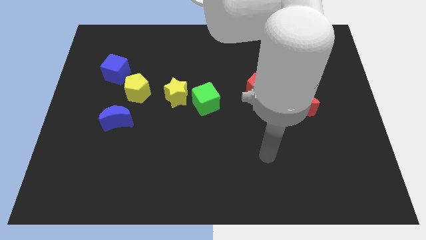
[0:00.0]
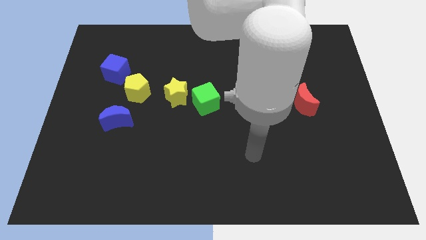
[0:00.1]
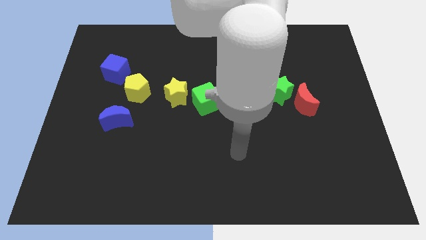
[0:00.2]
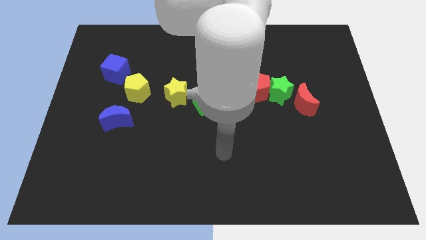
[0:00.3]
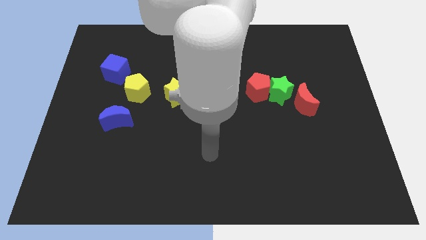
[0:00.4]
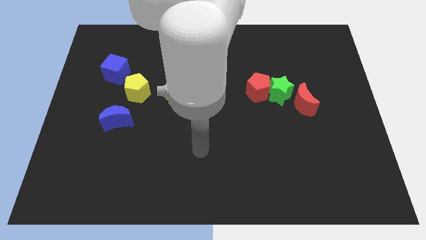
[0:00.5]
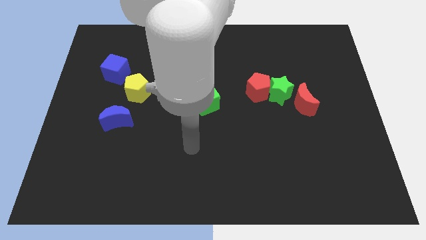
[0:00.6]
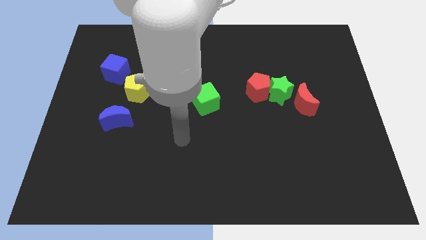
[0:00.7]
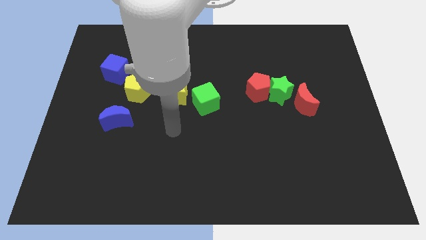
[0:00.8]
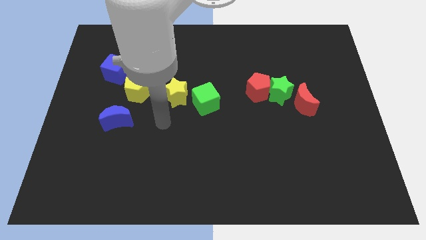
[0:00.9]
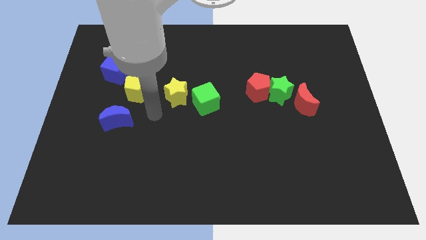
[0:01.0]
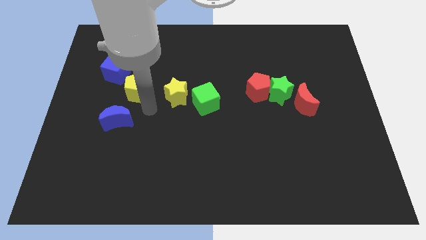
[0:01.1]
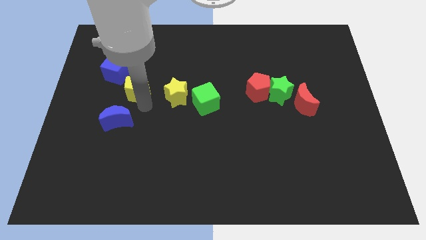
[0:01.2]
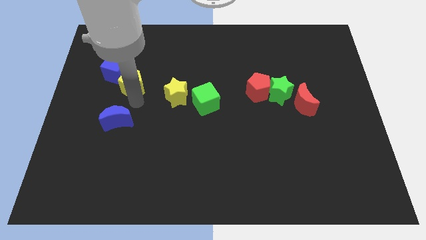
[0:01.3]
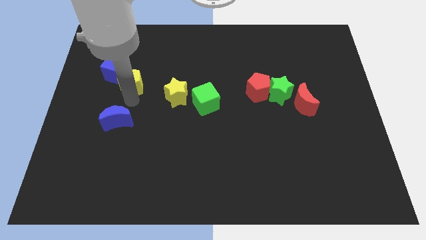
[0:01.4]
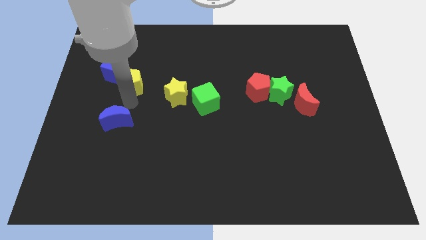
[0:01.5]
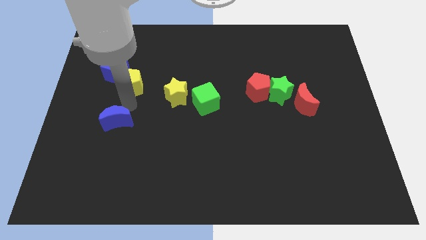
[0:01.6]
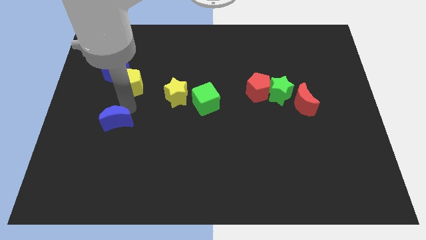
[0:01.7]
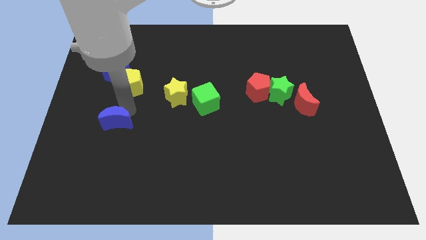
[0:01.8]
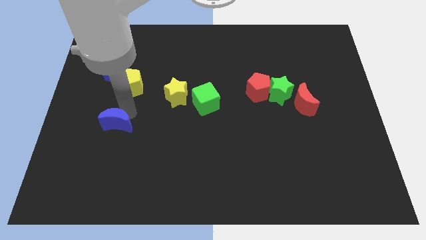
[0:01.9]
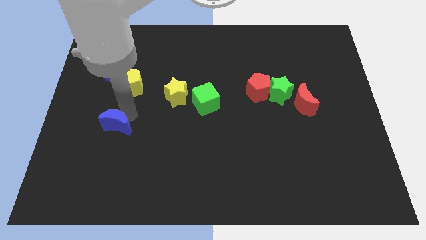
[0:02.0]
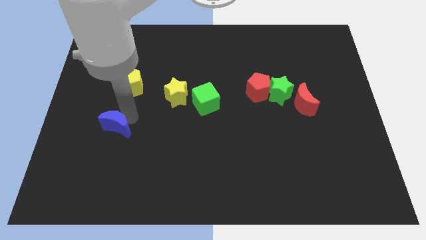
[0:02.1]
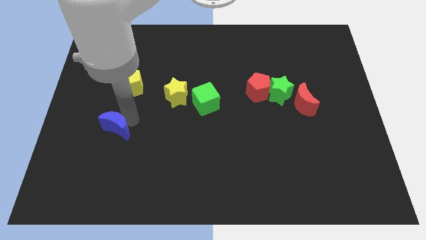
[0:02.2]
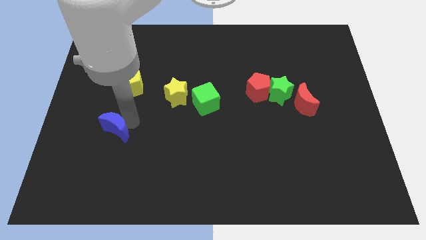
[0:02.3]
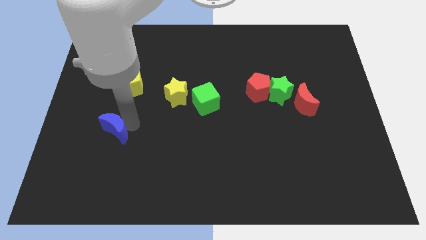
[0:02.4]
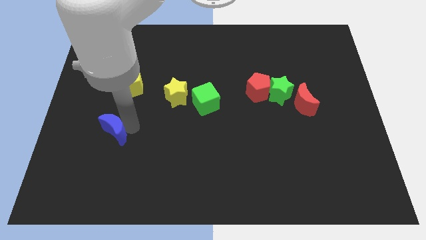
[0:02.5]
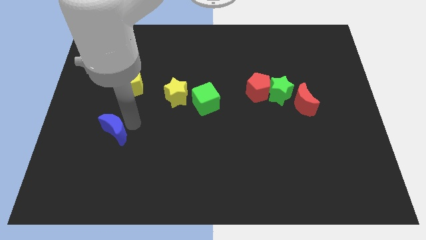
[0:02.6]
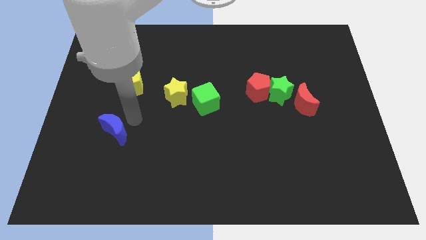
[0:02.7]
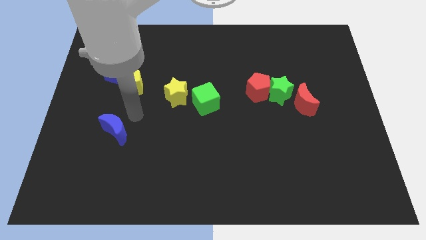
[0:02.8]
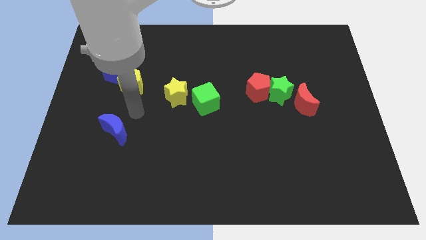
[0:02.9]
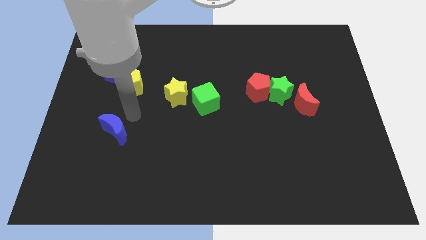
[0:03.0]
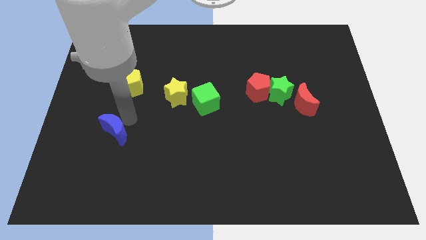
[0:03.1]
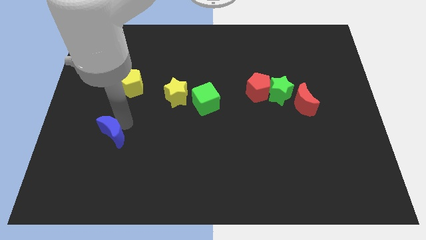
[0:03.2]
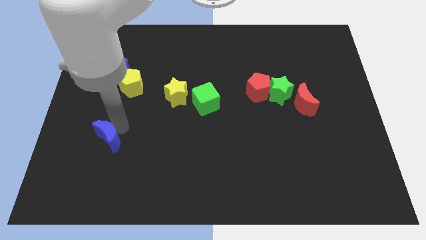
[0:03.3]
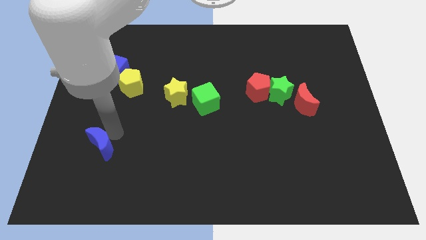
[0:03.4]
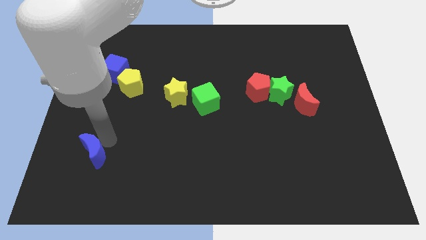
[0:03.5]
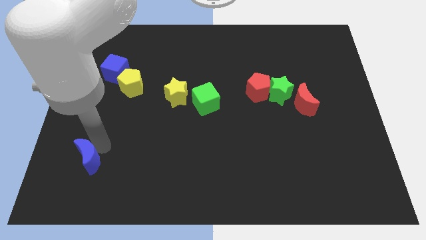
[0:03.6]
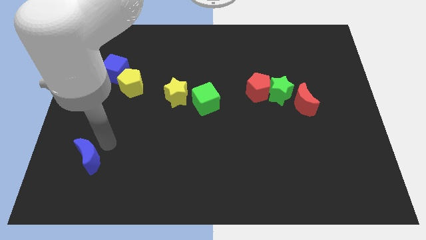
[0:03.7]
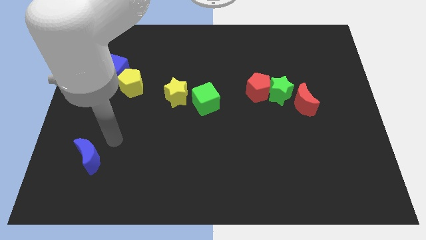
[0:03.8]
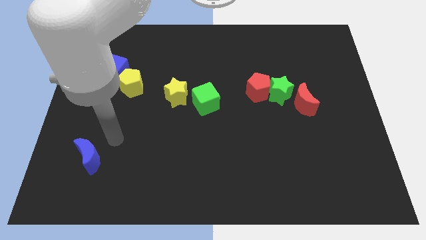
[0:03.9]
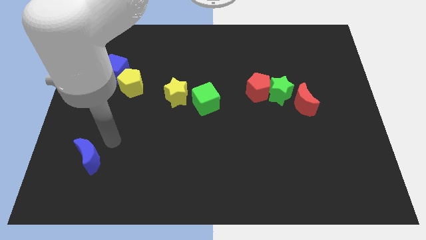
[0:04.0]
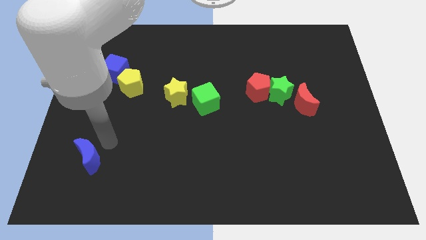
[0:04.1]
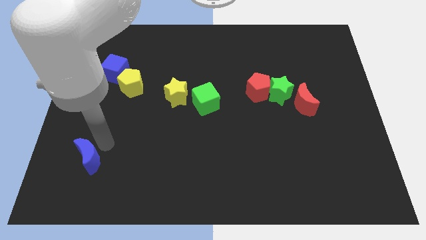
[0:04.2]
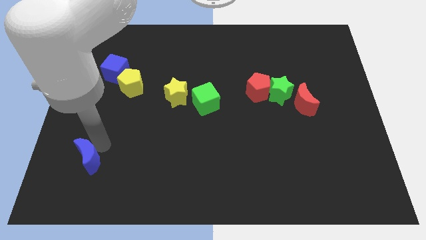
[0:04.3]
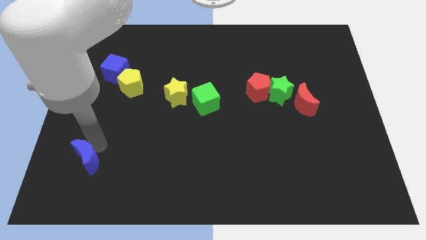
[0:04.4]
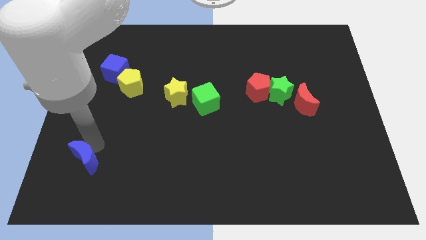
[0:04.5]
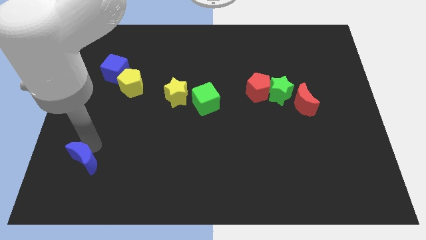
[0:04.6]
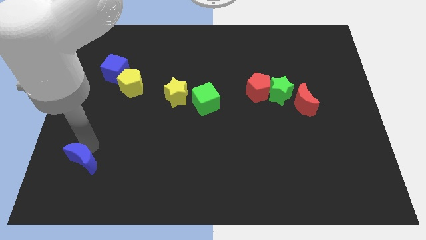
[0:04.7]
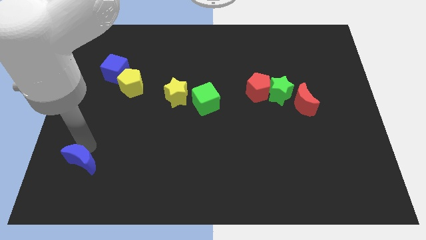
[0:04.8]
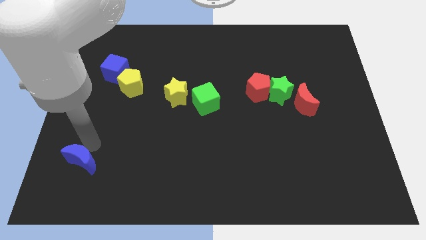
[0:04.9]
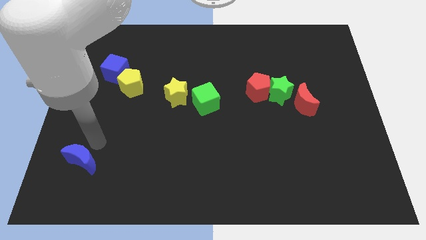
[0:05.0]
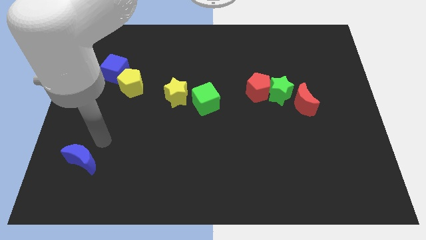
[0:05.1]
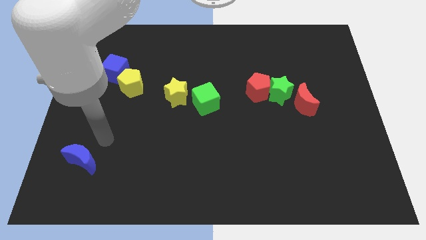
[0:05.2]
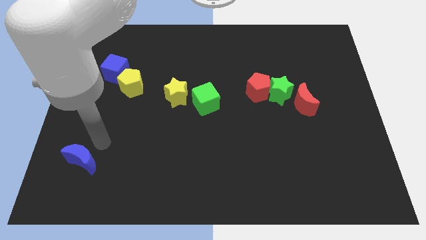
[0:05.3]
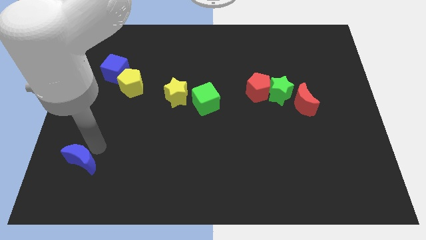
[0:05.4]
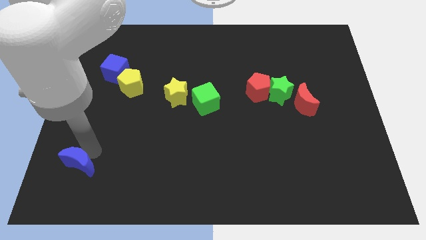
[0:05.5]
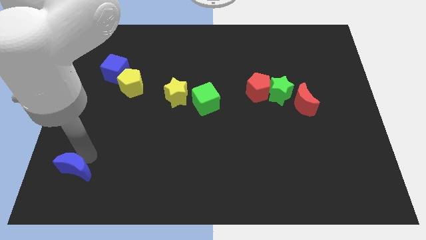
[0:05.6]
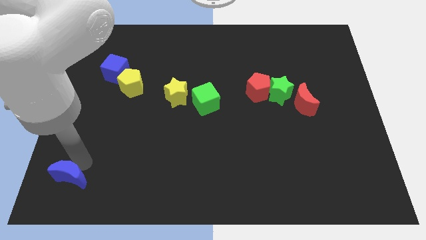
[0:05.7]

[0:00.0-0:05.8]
push the blue moon to the bottom left
